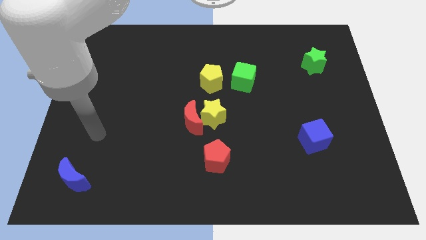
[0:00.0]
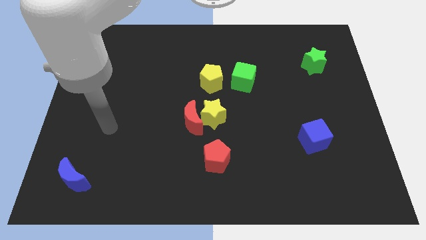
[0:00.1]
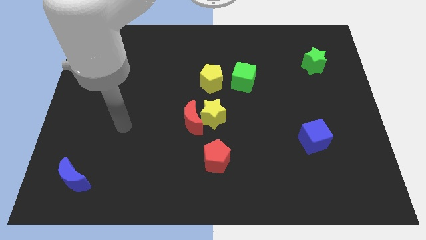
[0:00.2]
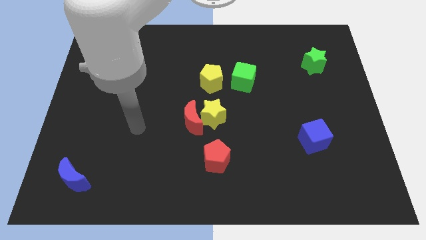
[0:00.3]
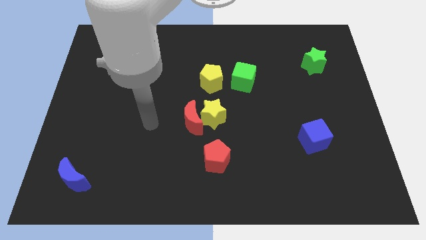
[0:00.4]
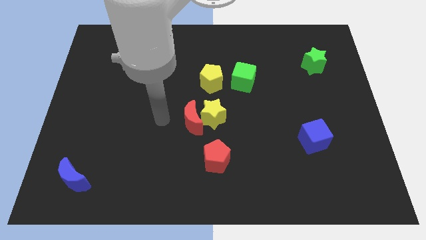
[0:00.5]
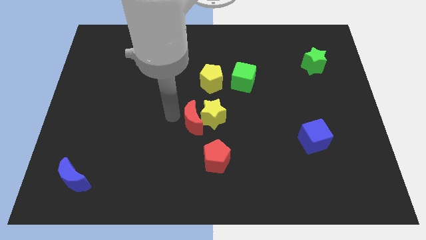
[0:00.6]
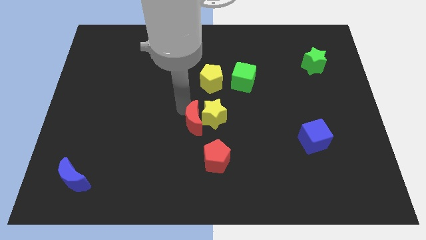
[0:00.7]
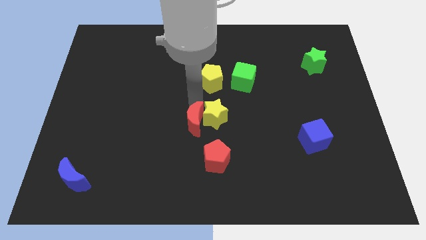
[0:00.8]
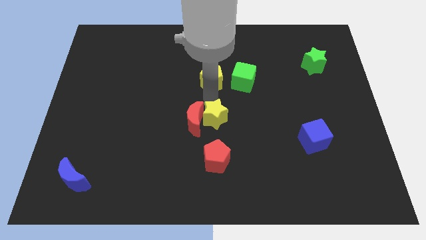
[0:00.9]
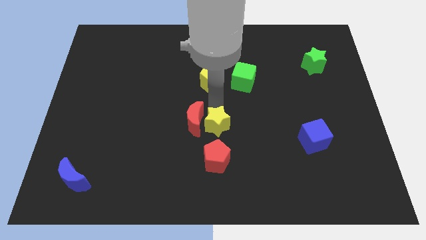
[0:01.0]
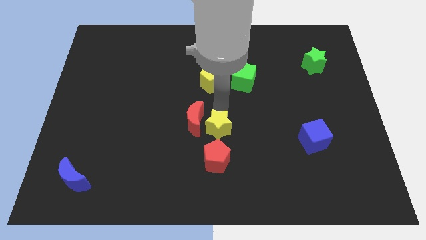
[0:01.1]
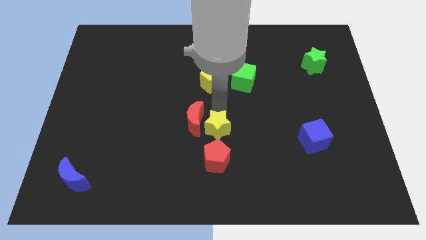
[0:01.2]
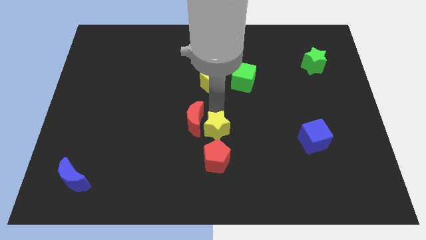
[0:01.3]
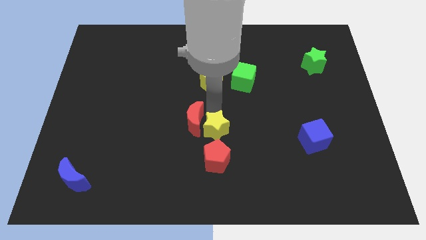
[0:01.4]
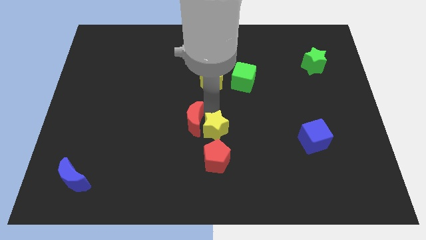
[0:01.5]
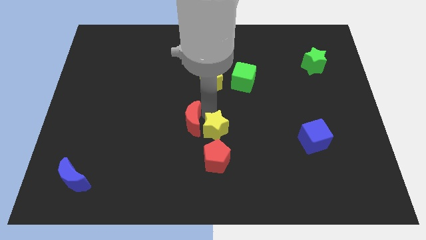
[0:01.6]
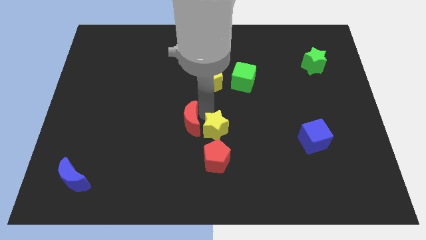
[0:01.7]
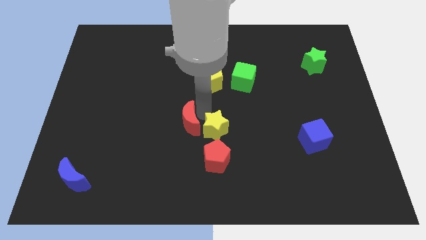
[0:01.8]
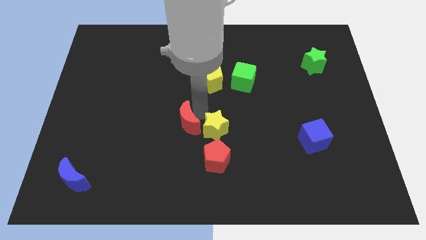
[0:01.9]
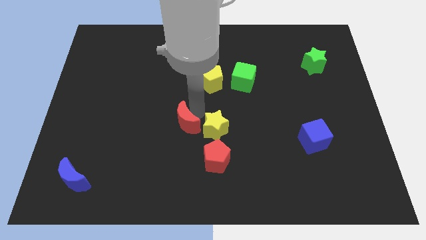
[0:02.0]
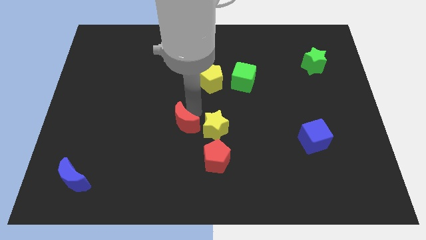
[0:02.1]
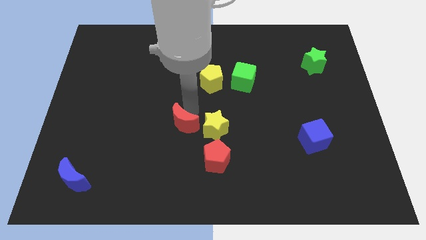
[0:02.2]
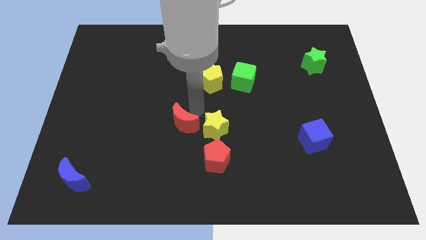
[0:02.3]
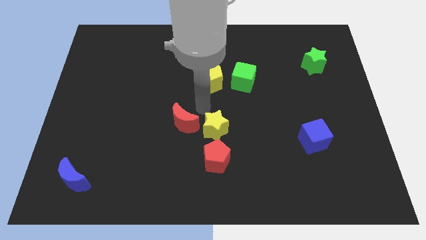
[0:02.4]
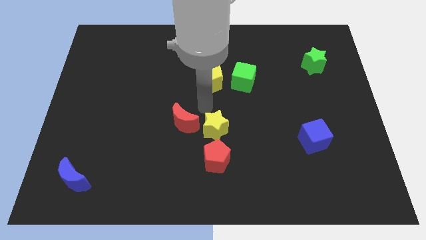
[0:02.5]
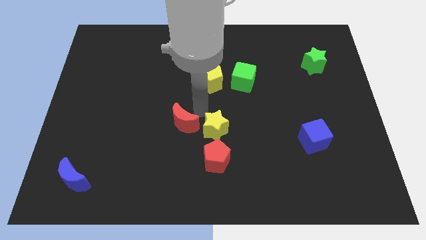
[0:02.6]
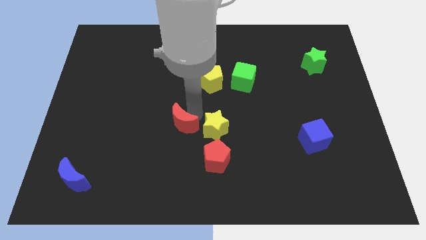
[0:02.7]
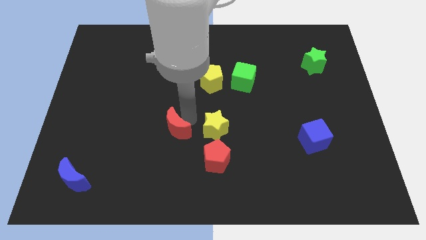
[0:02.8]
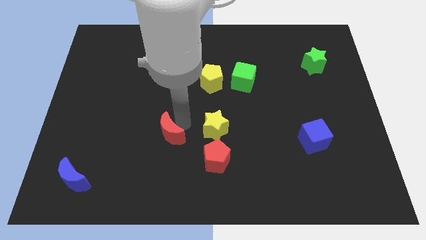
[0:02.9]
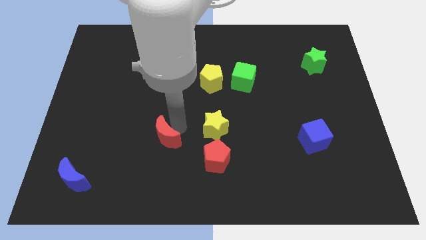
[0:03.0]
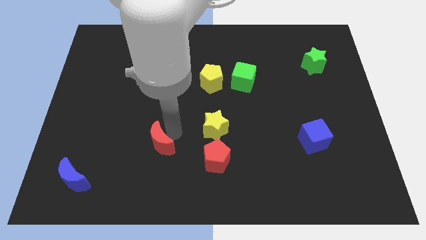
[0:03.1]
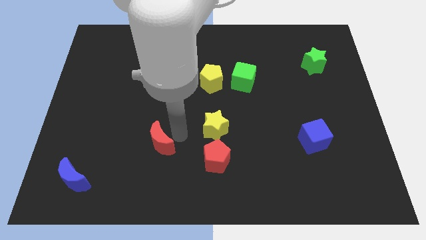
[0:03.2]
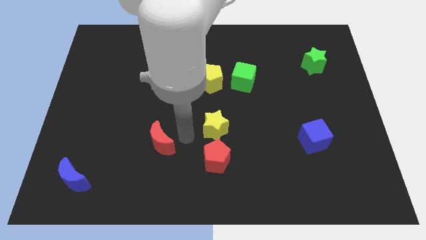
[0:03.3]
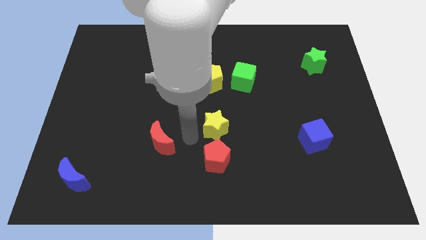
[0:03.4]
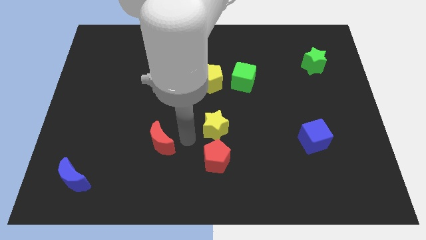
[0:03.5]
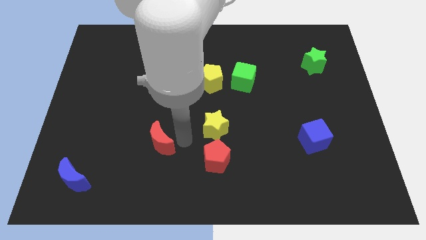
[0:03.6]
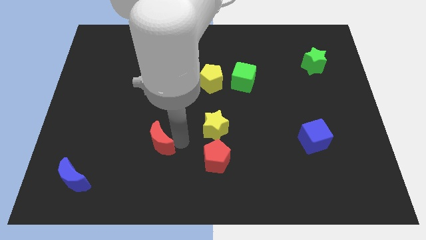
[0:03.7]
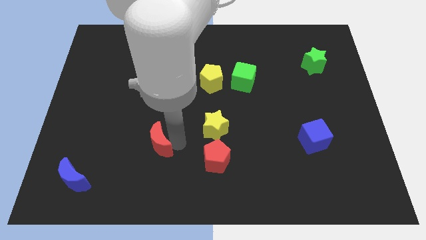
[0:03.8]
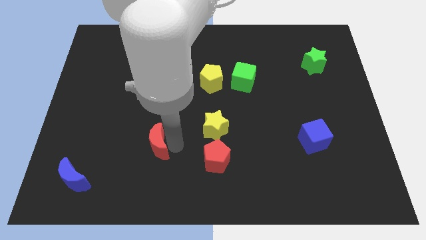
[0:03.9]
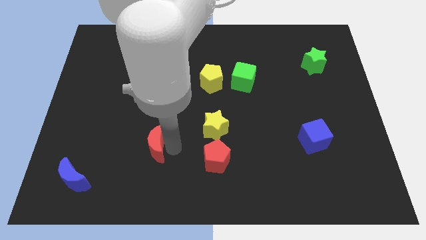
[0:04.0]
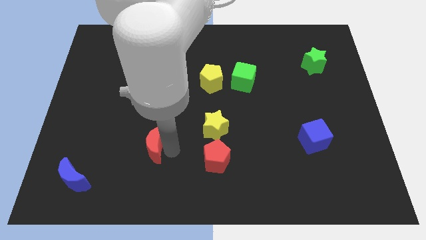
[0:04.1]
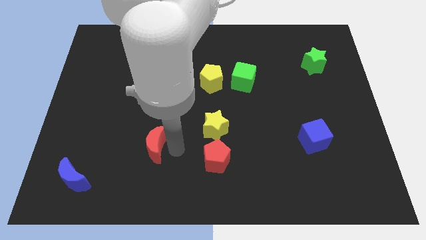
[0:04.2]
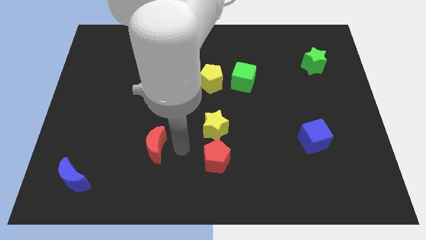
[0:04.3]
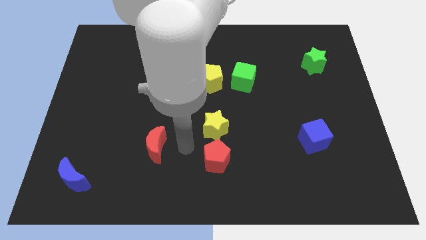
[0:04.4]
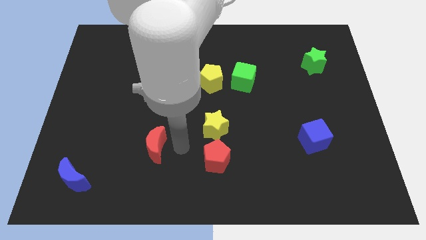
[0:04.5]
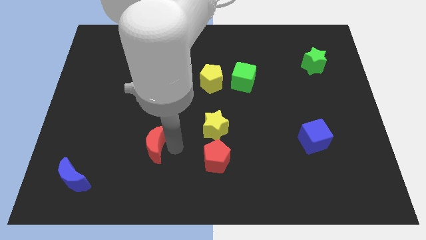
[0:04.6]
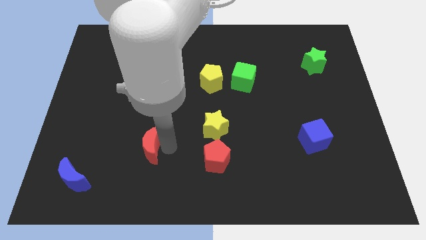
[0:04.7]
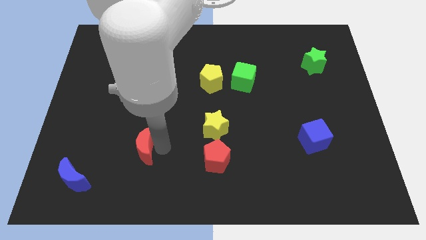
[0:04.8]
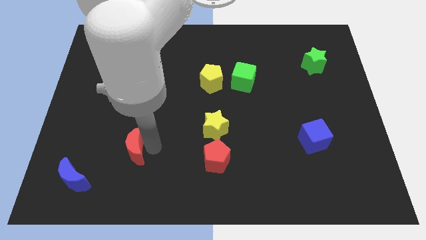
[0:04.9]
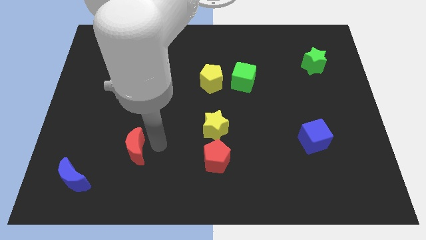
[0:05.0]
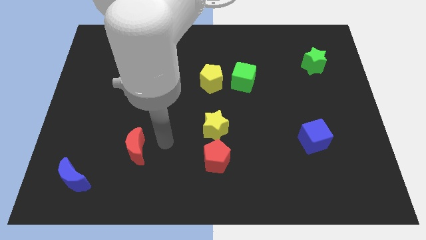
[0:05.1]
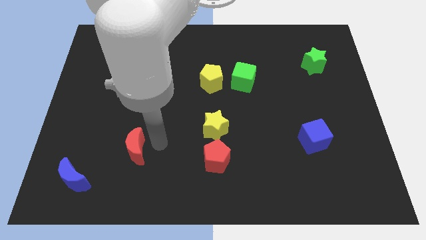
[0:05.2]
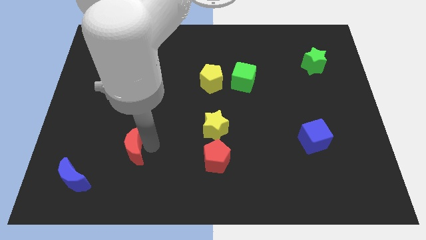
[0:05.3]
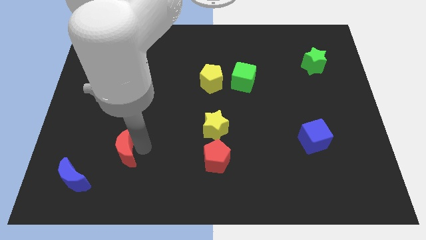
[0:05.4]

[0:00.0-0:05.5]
slide the red moon to the top right side of the blue moon
